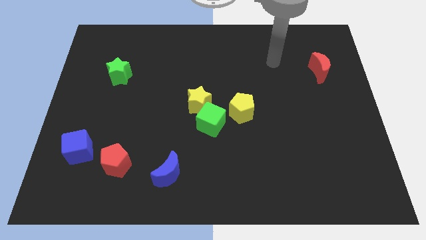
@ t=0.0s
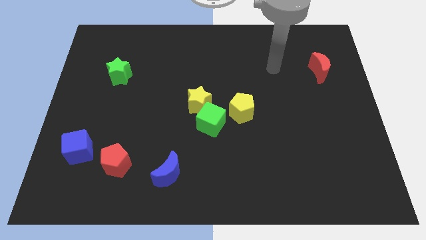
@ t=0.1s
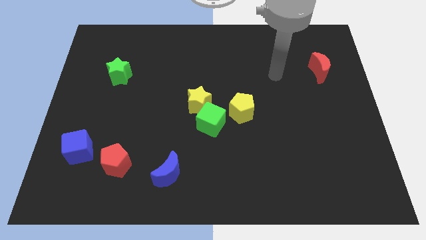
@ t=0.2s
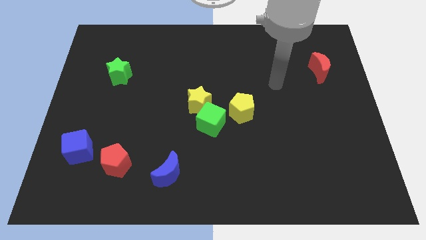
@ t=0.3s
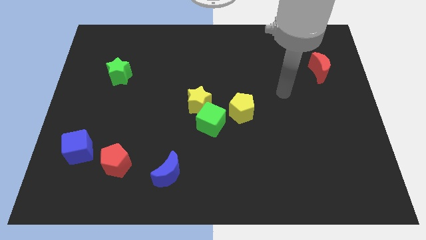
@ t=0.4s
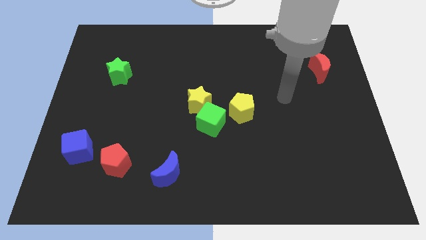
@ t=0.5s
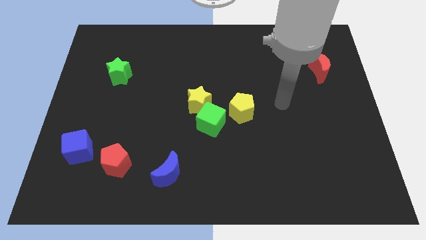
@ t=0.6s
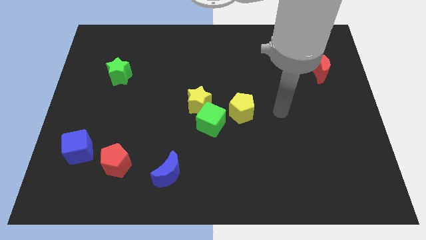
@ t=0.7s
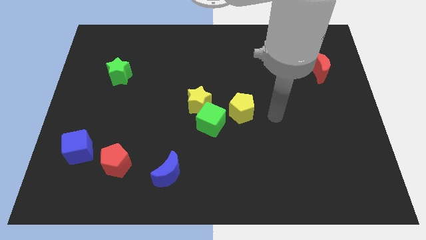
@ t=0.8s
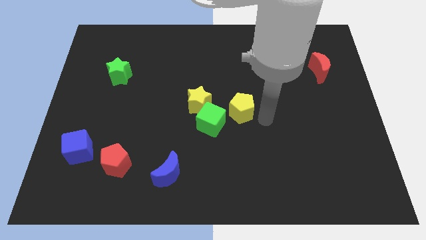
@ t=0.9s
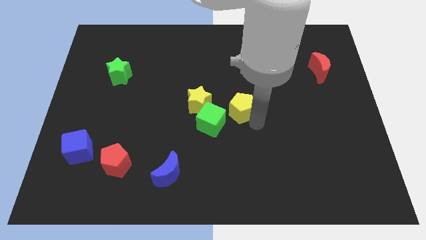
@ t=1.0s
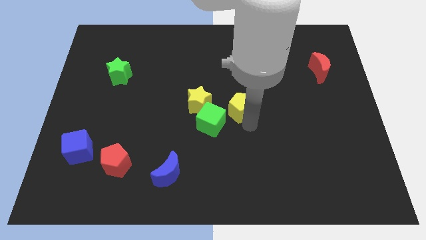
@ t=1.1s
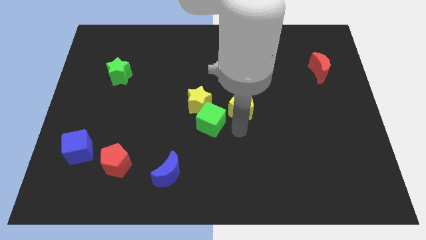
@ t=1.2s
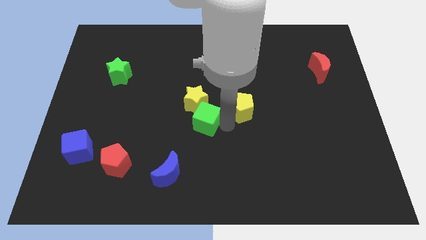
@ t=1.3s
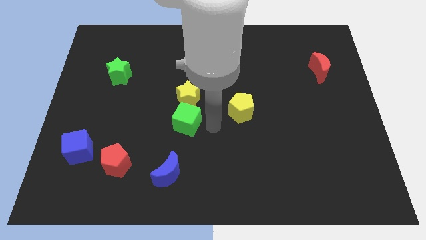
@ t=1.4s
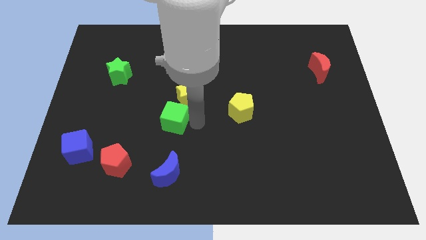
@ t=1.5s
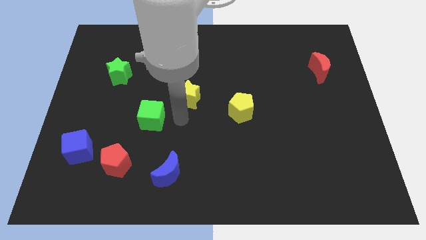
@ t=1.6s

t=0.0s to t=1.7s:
separate the yellow star from the green cube

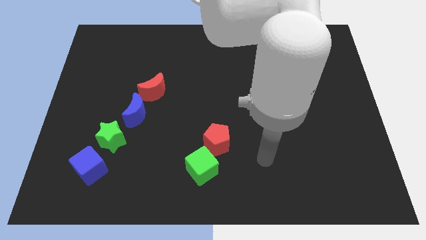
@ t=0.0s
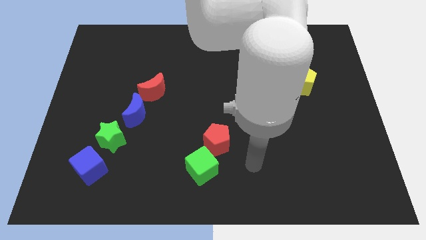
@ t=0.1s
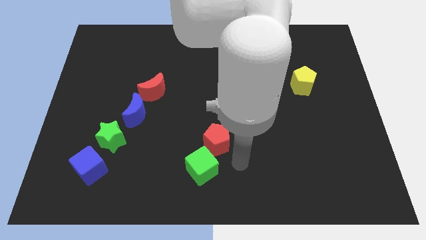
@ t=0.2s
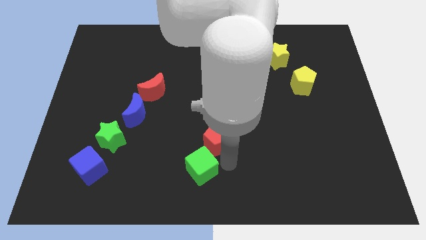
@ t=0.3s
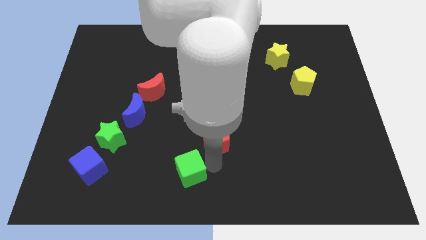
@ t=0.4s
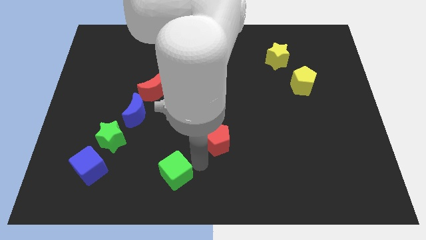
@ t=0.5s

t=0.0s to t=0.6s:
pull the red pentagon apart from the green cube

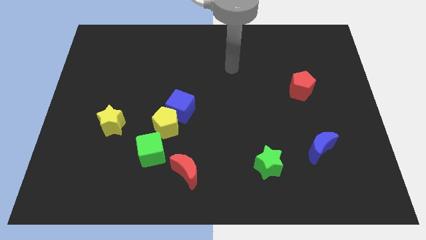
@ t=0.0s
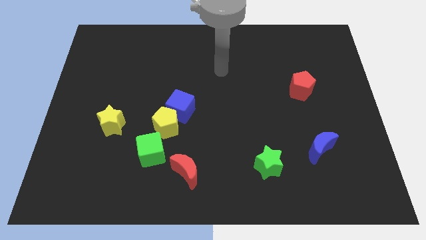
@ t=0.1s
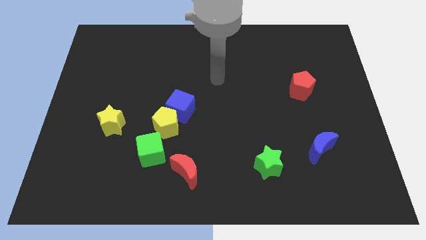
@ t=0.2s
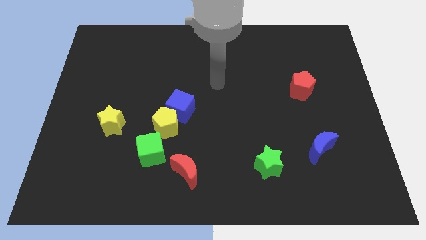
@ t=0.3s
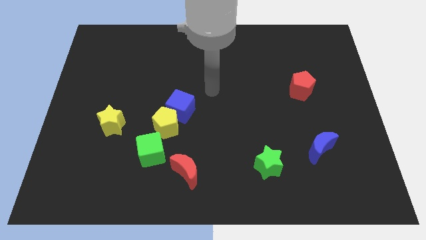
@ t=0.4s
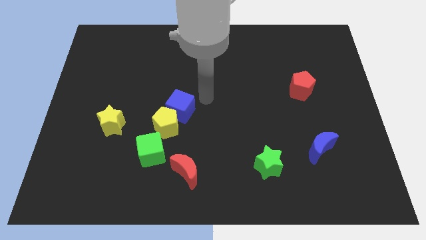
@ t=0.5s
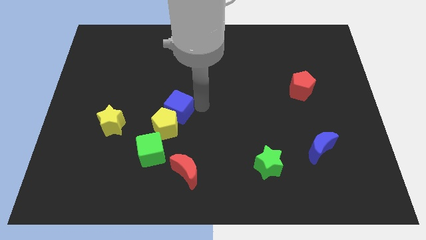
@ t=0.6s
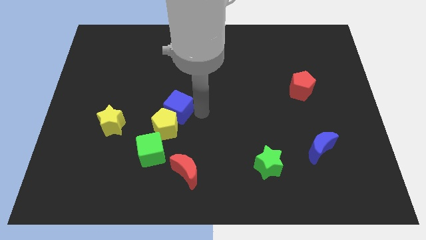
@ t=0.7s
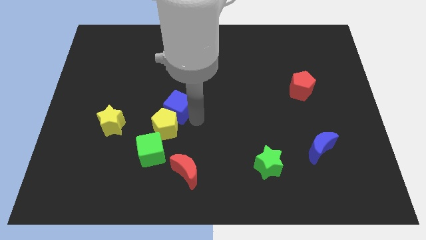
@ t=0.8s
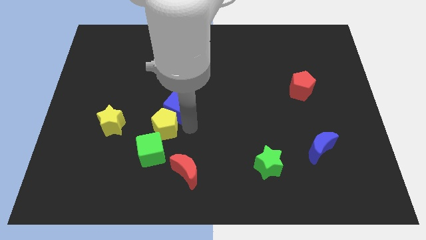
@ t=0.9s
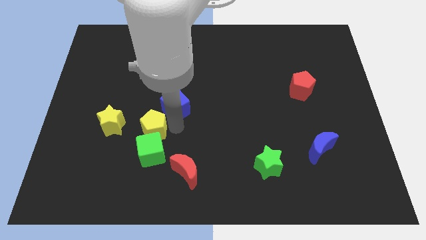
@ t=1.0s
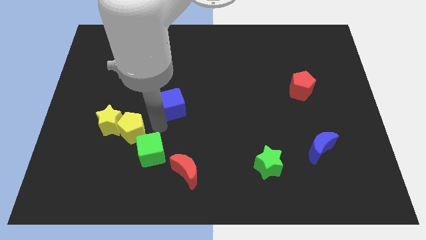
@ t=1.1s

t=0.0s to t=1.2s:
move the blue cube away from the yellow pentagon

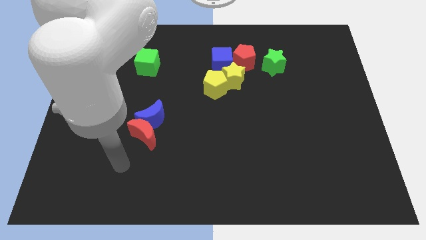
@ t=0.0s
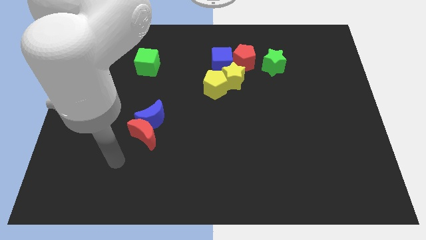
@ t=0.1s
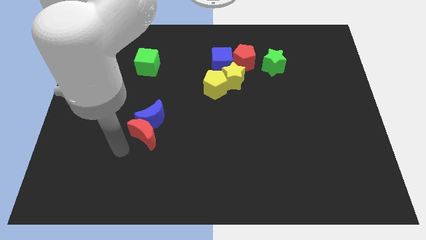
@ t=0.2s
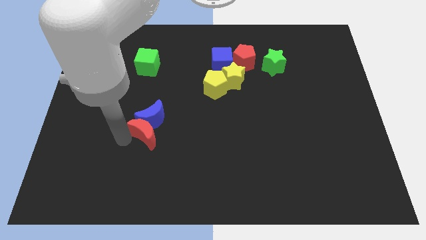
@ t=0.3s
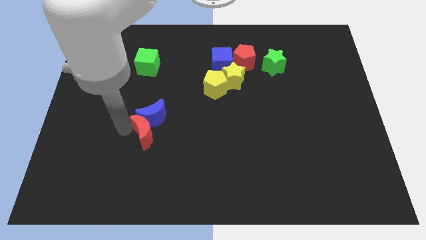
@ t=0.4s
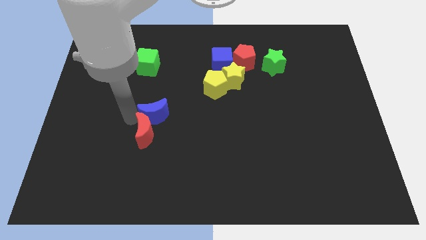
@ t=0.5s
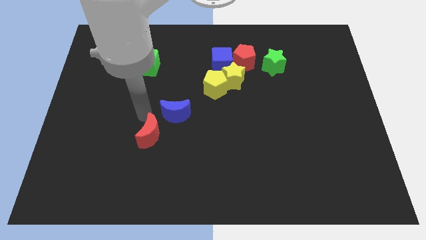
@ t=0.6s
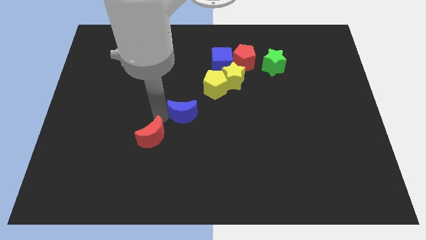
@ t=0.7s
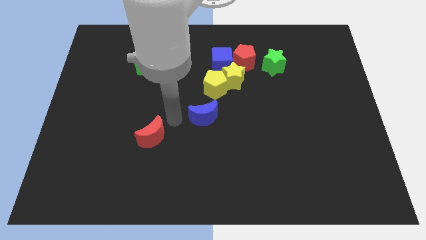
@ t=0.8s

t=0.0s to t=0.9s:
separate the red moon from the blue moon

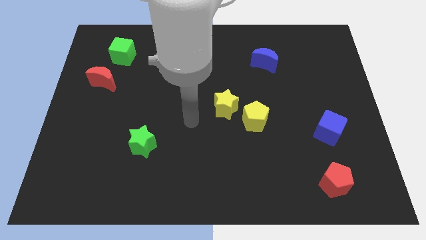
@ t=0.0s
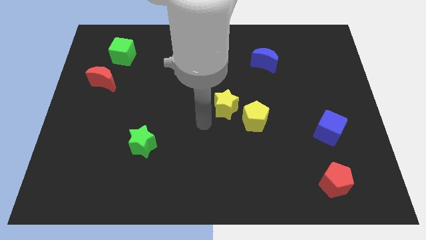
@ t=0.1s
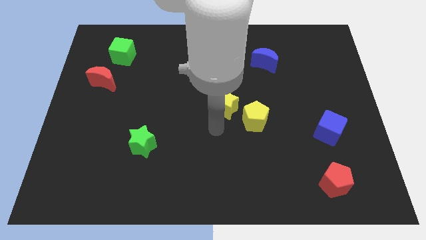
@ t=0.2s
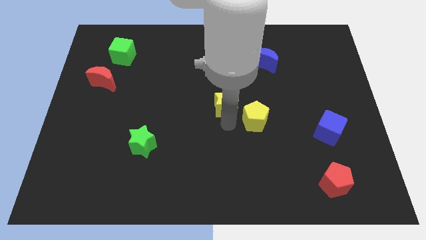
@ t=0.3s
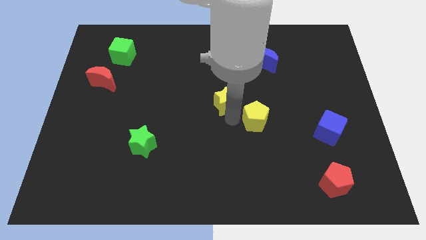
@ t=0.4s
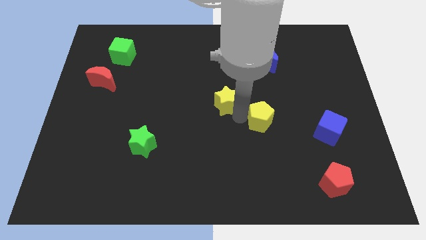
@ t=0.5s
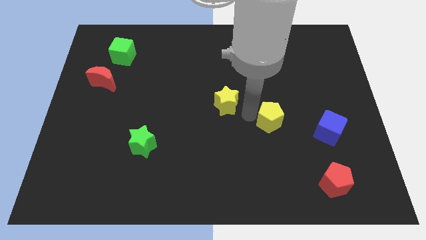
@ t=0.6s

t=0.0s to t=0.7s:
move the yellow star away from the yellow pentagon

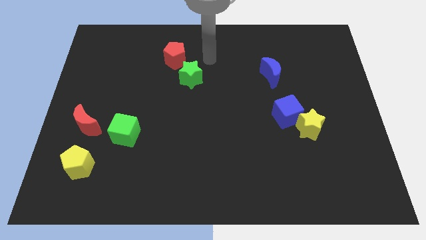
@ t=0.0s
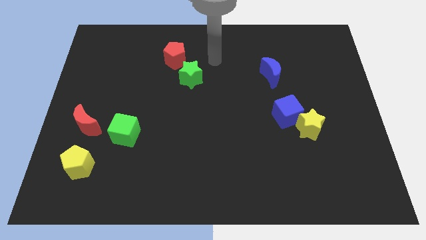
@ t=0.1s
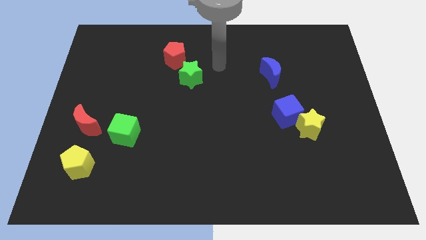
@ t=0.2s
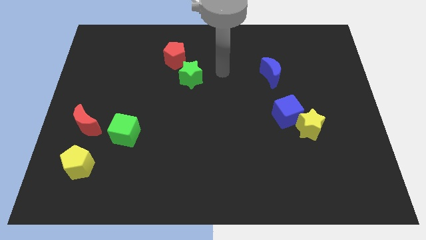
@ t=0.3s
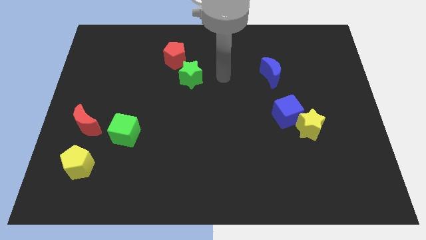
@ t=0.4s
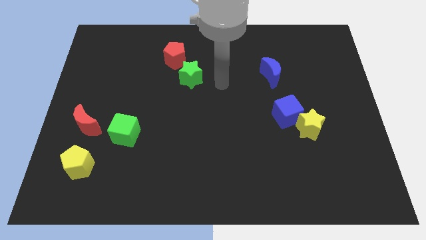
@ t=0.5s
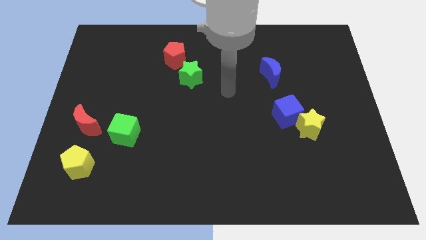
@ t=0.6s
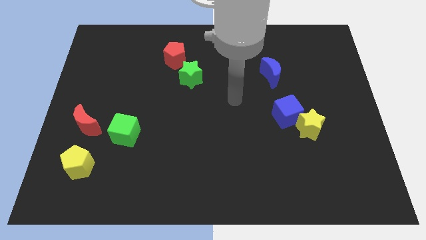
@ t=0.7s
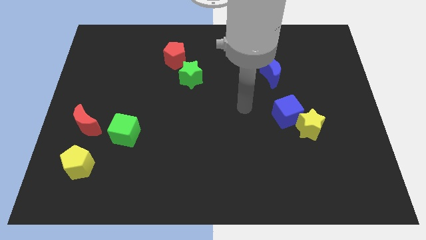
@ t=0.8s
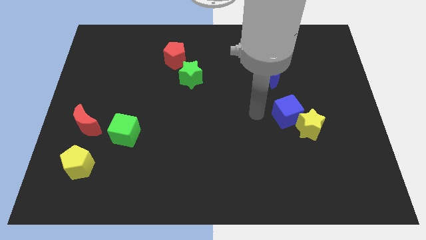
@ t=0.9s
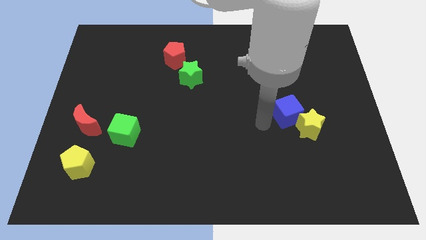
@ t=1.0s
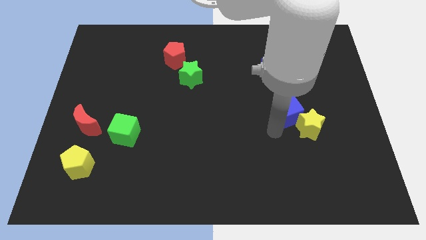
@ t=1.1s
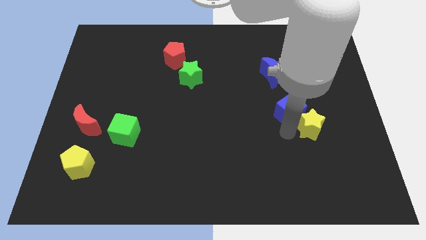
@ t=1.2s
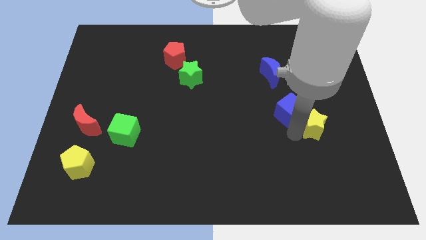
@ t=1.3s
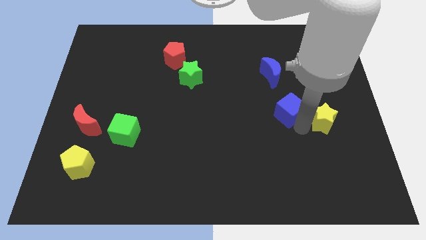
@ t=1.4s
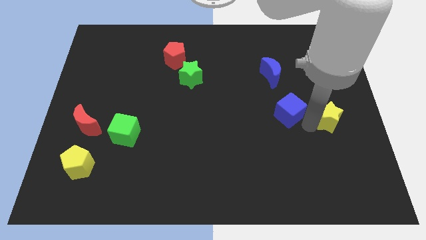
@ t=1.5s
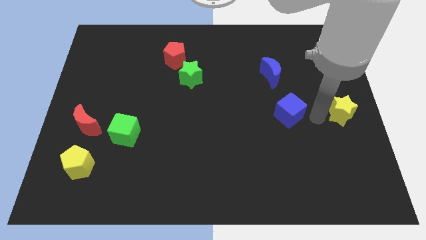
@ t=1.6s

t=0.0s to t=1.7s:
separate the blue cube from the yellow star

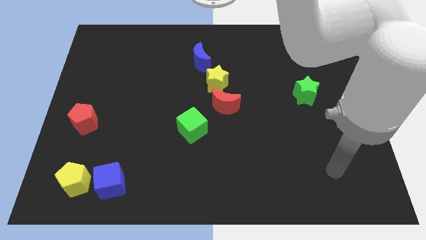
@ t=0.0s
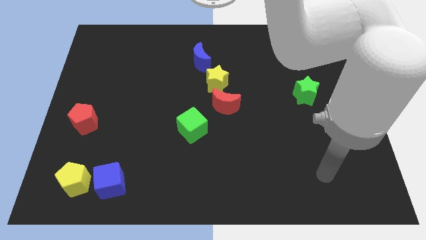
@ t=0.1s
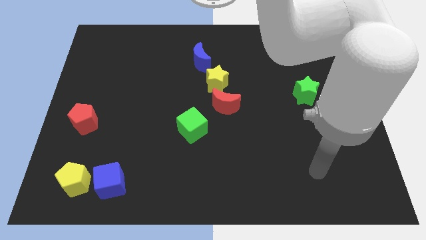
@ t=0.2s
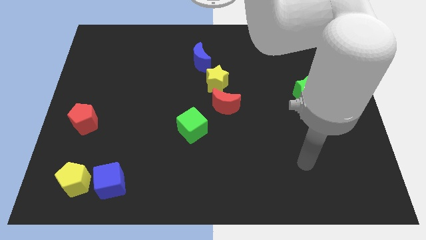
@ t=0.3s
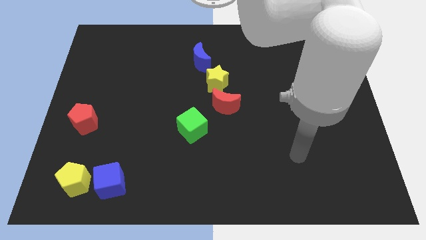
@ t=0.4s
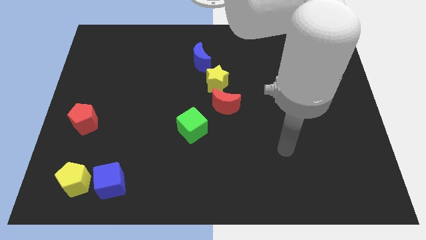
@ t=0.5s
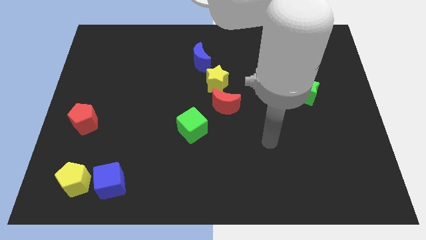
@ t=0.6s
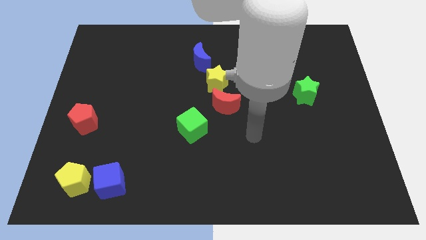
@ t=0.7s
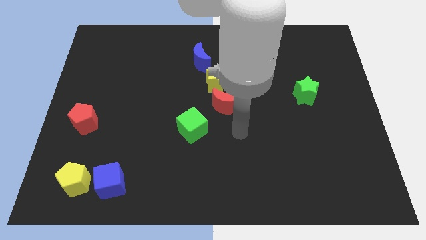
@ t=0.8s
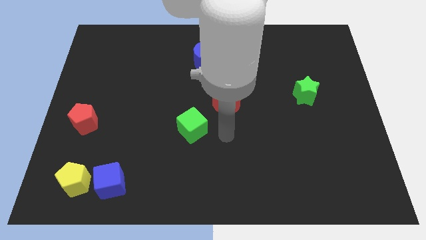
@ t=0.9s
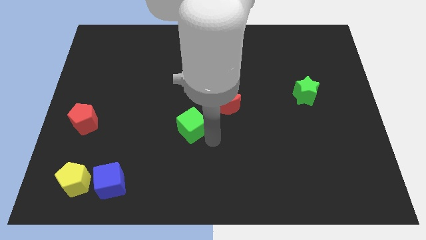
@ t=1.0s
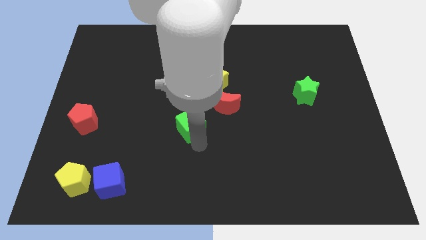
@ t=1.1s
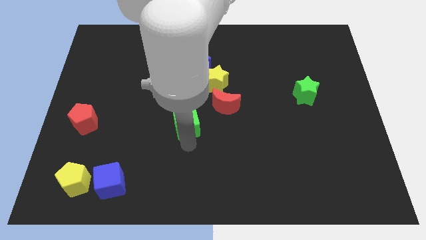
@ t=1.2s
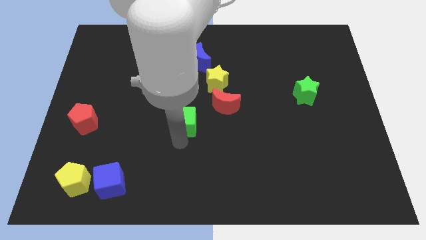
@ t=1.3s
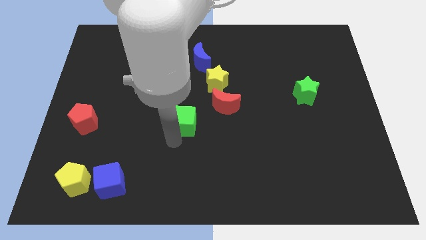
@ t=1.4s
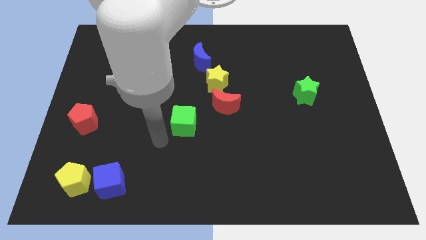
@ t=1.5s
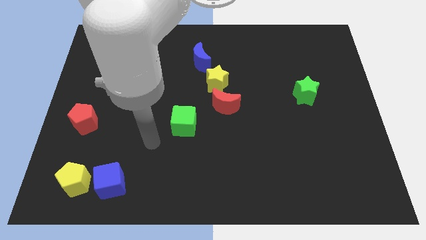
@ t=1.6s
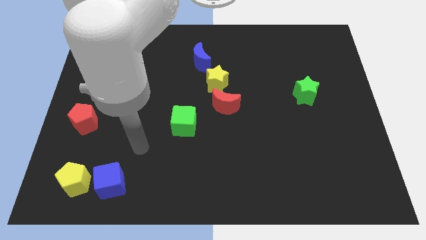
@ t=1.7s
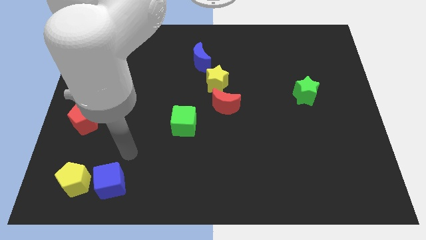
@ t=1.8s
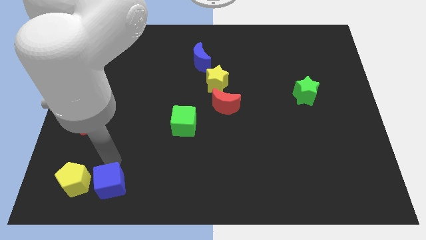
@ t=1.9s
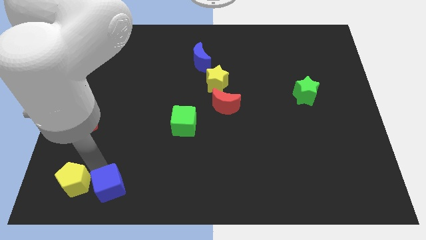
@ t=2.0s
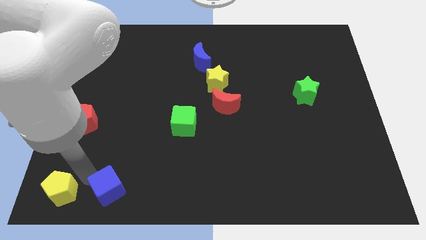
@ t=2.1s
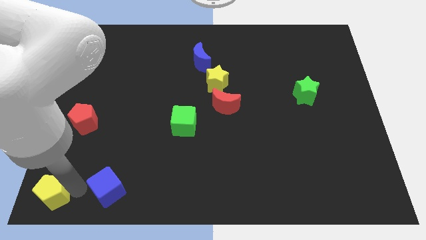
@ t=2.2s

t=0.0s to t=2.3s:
pull the blue cube apart from the yellow pentagon

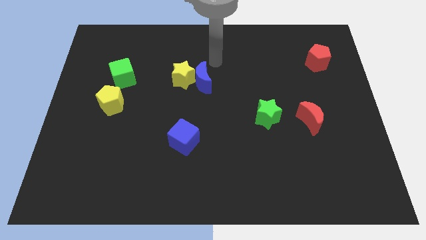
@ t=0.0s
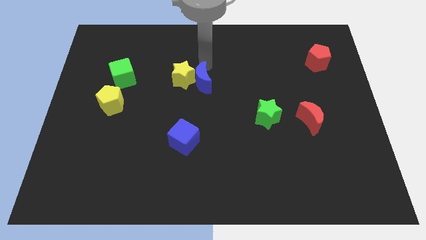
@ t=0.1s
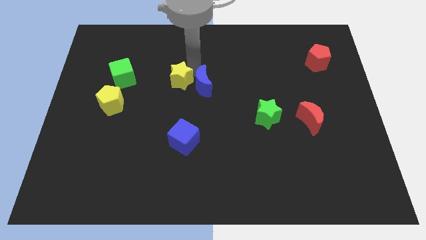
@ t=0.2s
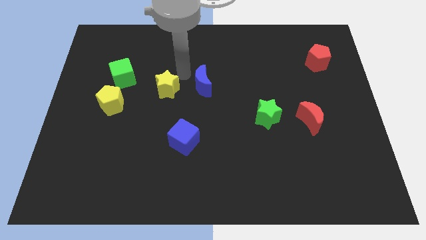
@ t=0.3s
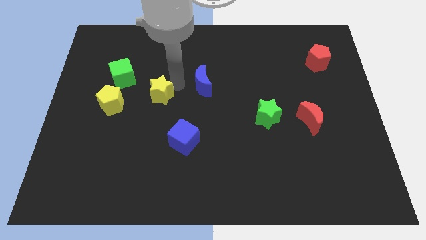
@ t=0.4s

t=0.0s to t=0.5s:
move the blue moon away from the yellow star
